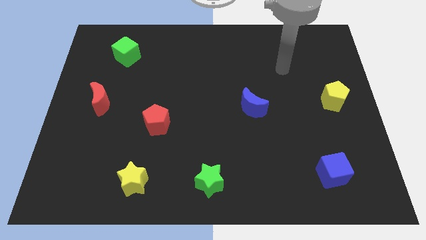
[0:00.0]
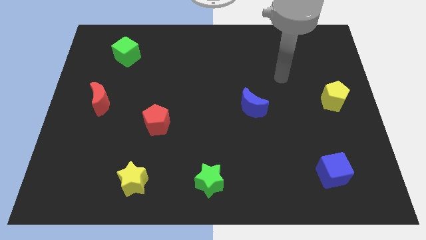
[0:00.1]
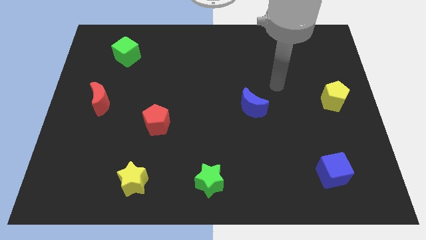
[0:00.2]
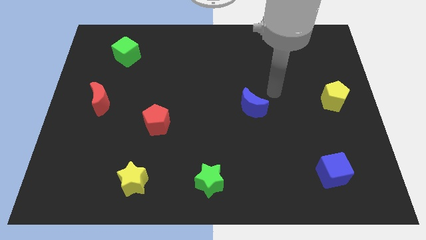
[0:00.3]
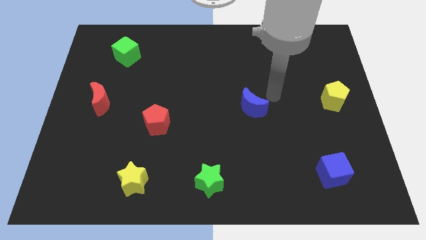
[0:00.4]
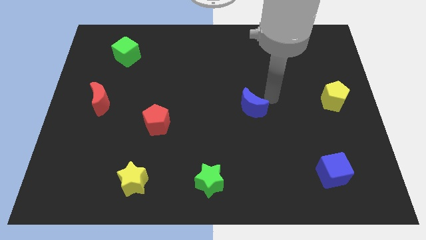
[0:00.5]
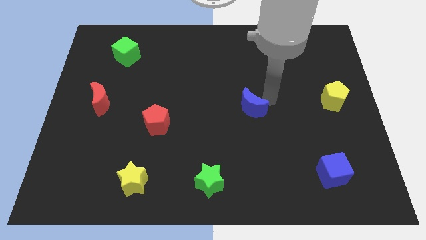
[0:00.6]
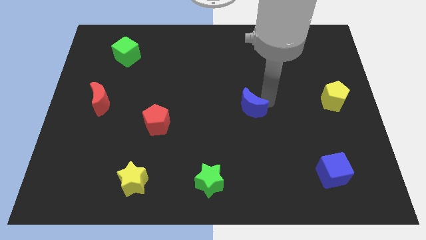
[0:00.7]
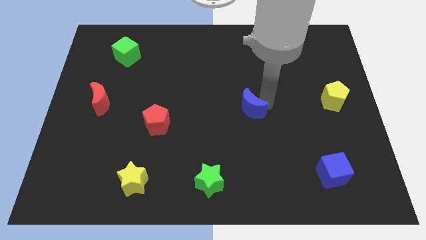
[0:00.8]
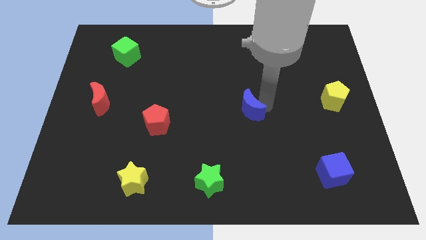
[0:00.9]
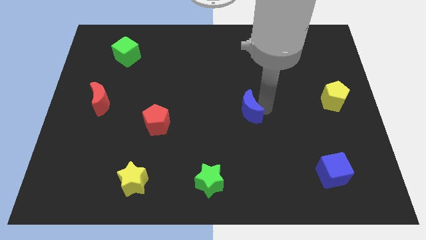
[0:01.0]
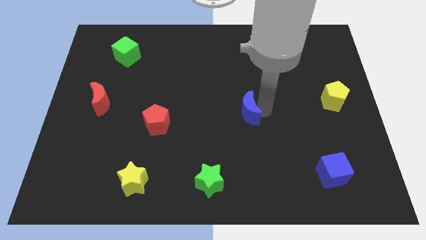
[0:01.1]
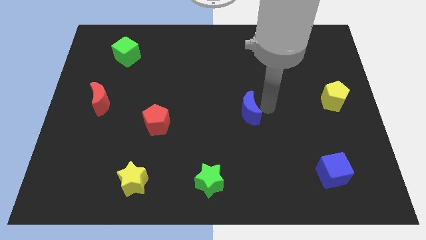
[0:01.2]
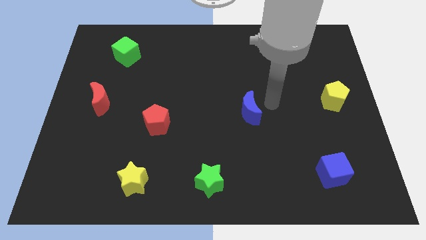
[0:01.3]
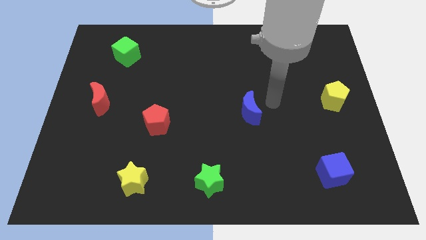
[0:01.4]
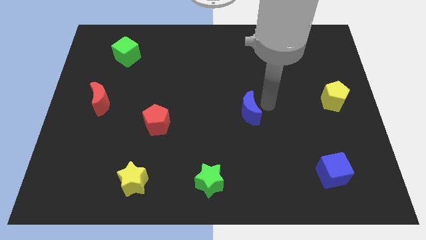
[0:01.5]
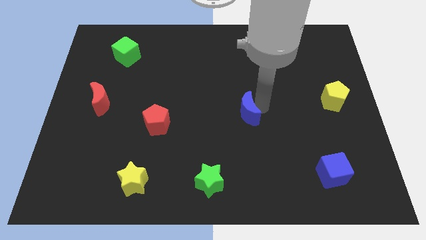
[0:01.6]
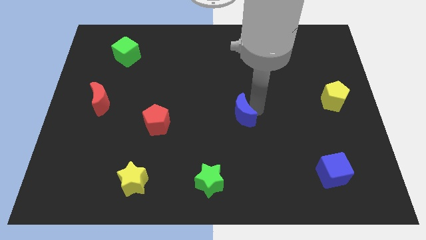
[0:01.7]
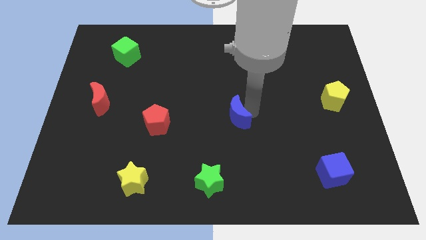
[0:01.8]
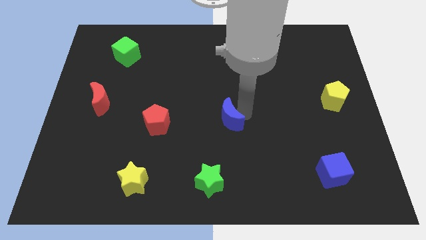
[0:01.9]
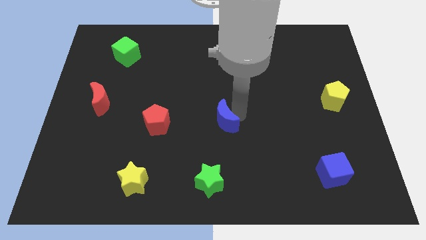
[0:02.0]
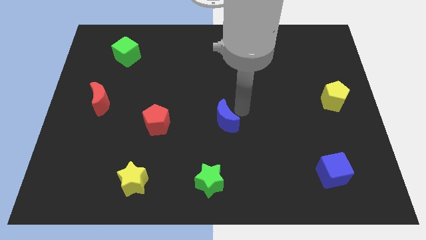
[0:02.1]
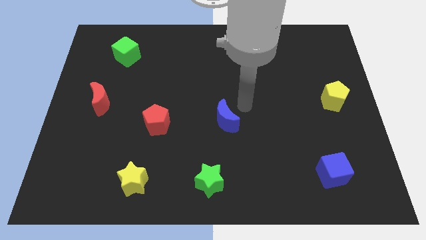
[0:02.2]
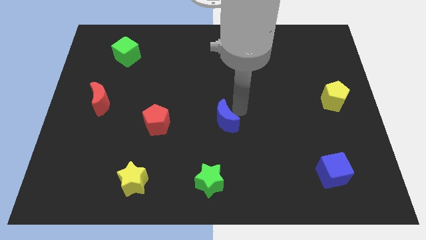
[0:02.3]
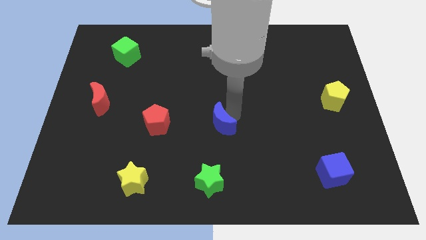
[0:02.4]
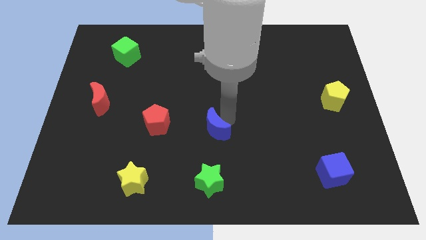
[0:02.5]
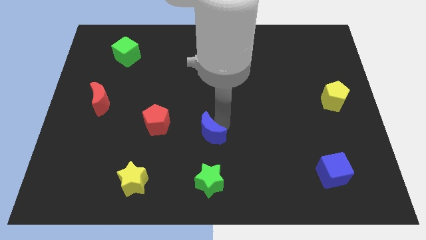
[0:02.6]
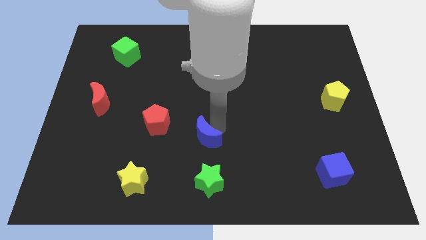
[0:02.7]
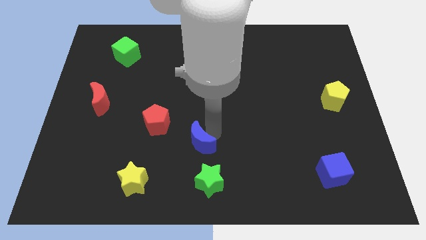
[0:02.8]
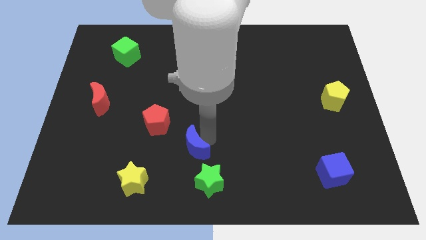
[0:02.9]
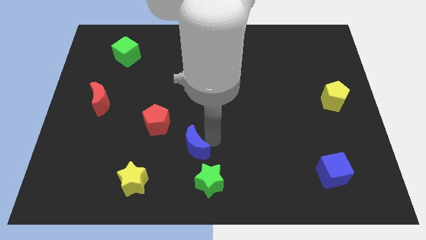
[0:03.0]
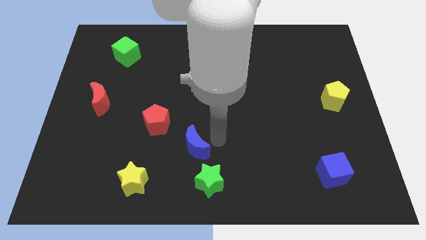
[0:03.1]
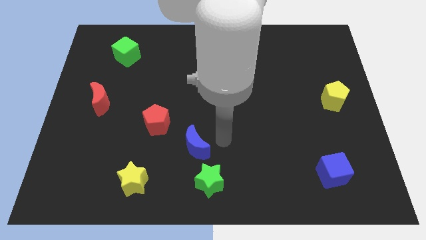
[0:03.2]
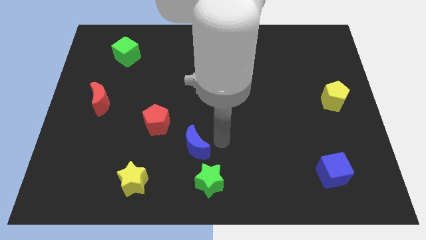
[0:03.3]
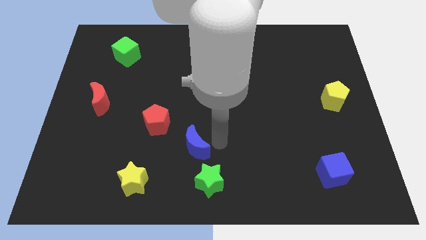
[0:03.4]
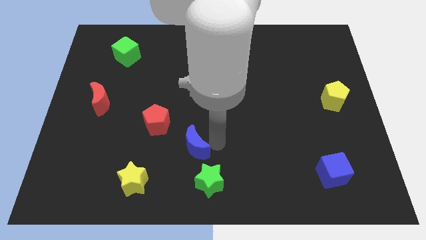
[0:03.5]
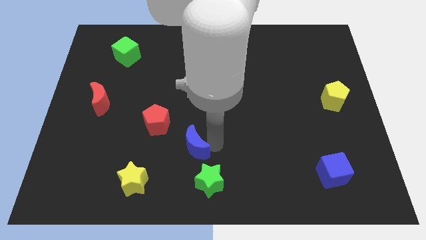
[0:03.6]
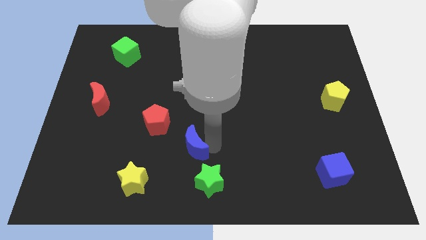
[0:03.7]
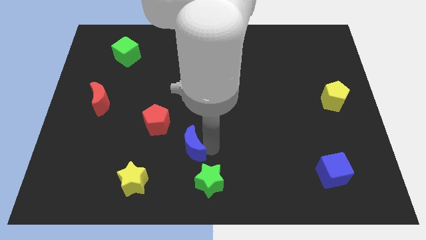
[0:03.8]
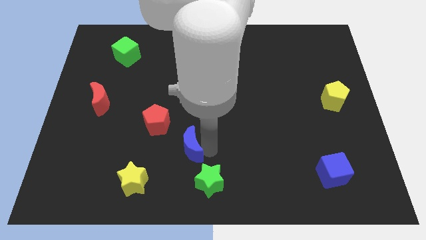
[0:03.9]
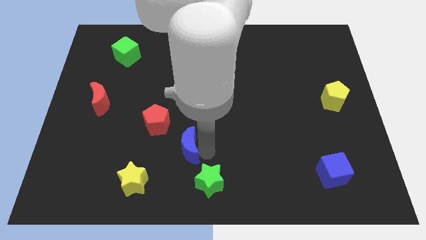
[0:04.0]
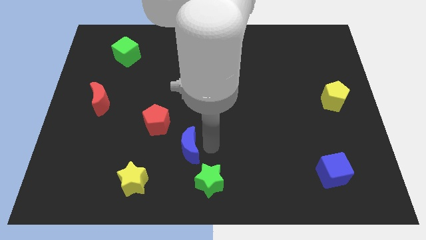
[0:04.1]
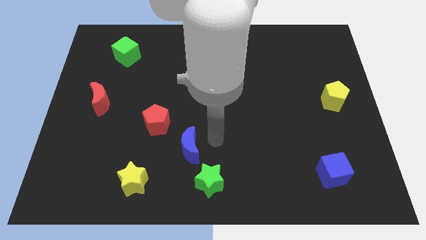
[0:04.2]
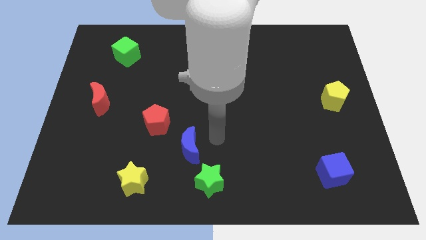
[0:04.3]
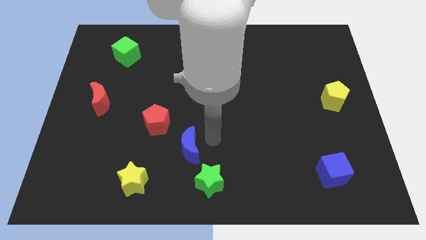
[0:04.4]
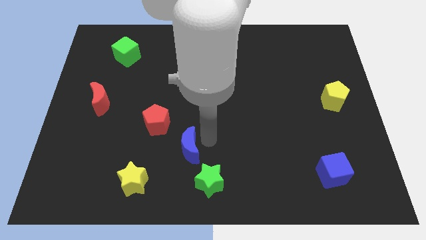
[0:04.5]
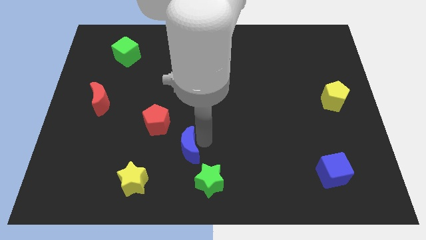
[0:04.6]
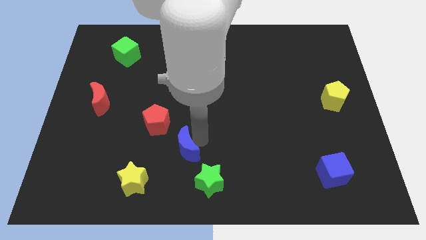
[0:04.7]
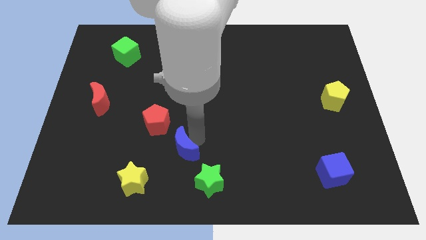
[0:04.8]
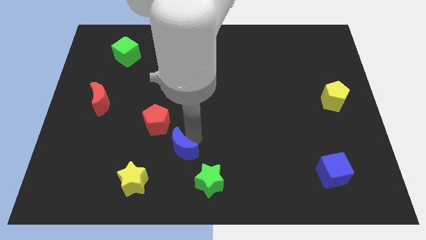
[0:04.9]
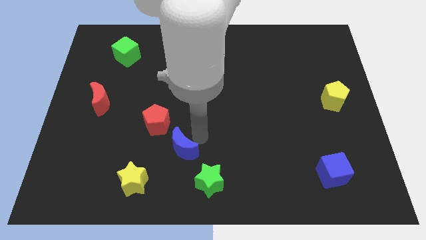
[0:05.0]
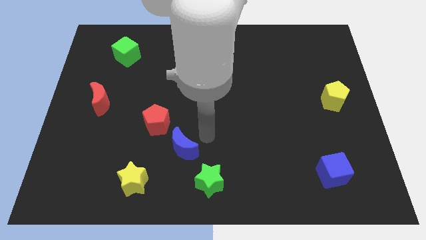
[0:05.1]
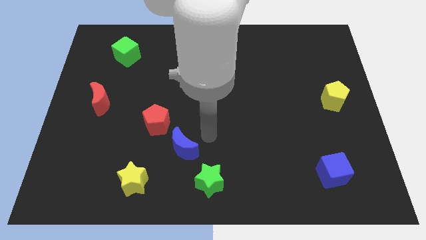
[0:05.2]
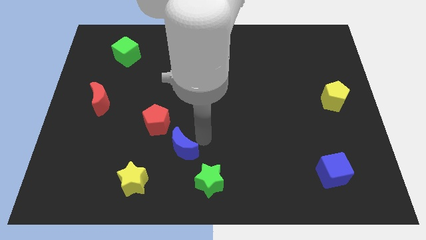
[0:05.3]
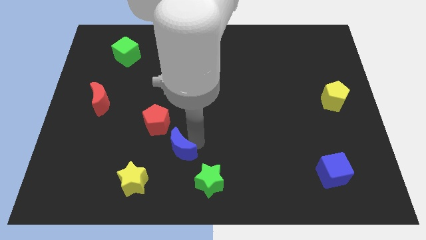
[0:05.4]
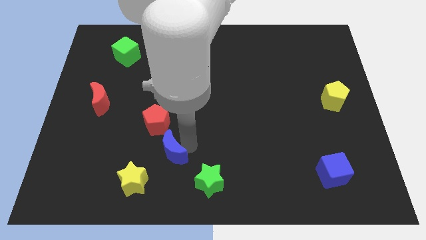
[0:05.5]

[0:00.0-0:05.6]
push the blue moon below the red pentagon

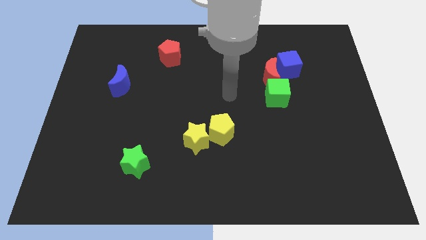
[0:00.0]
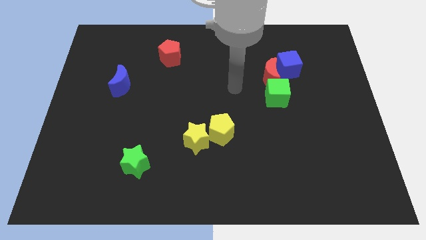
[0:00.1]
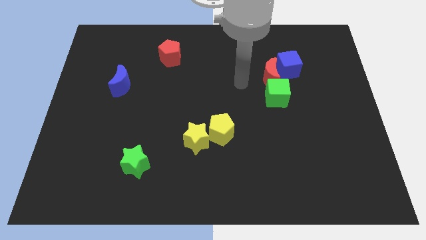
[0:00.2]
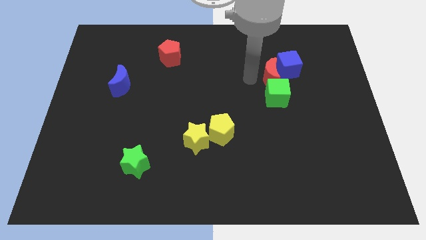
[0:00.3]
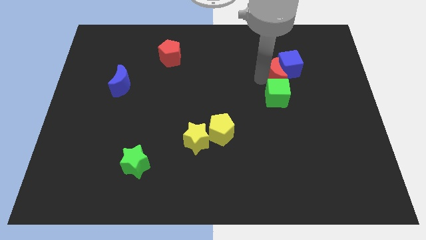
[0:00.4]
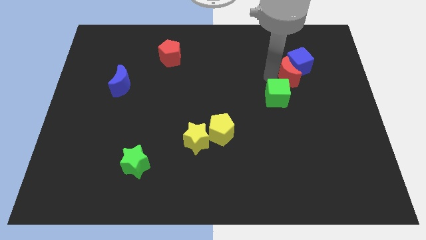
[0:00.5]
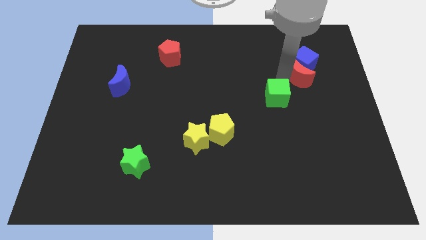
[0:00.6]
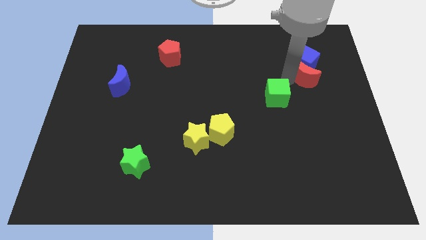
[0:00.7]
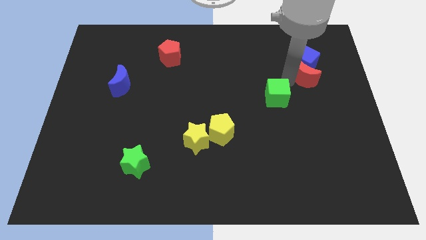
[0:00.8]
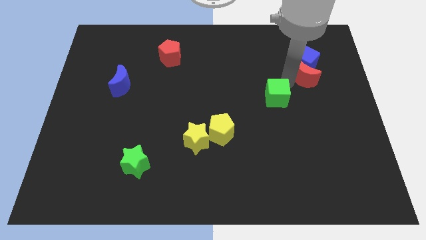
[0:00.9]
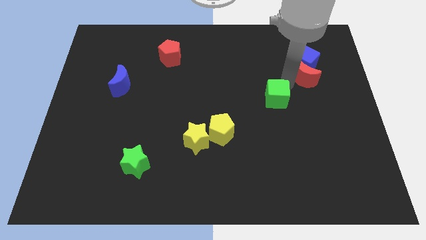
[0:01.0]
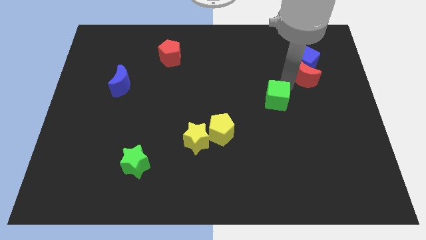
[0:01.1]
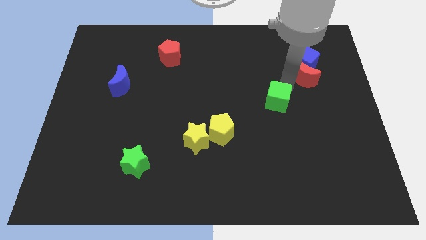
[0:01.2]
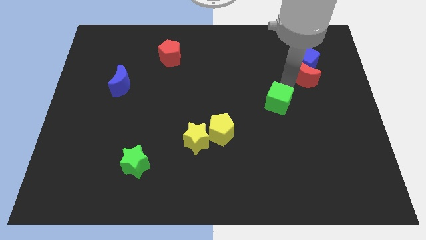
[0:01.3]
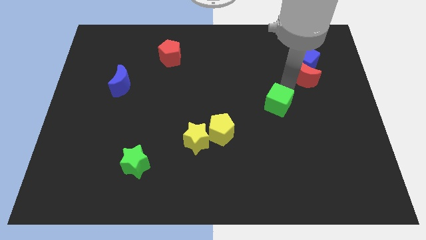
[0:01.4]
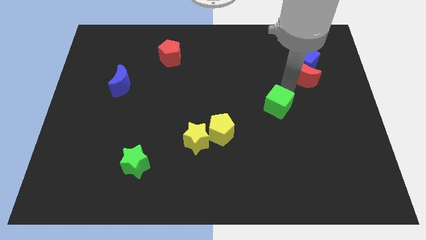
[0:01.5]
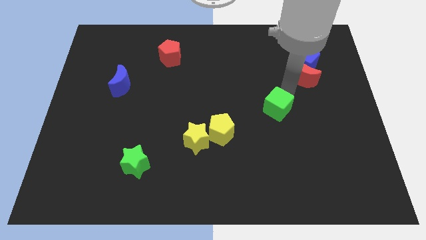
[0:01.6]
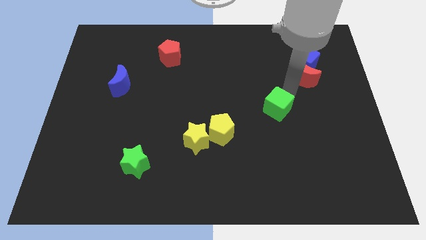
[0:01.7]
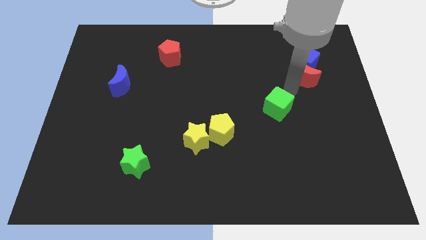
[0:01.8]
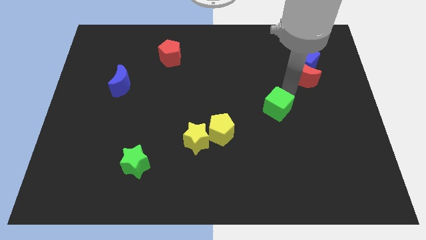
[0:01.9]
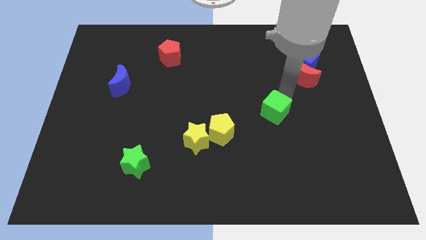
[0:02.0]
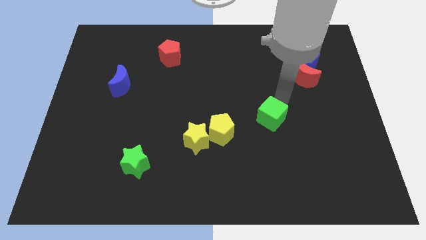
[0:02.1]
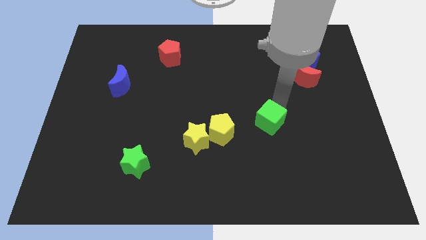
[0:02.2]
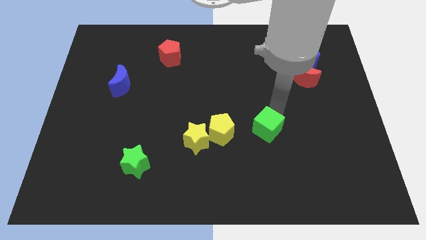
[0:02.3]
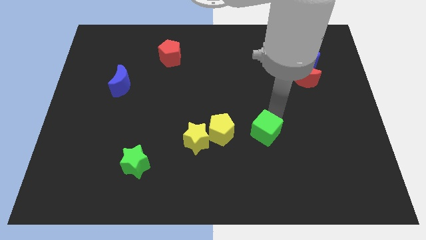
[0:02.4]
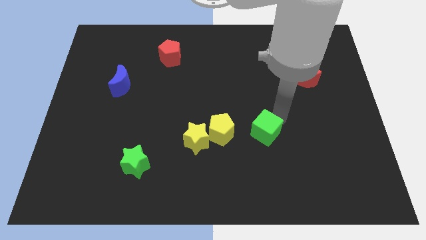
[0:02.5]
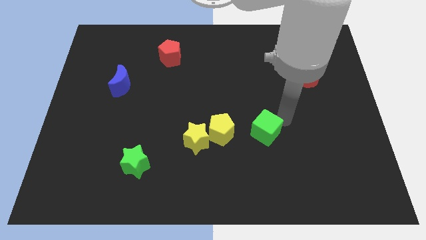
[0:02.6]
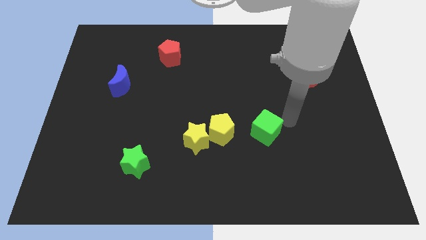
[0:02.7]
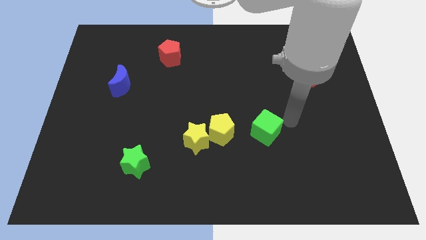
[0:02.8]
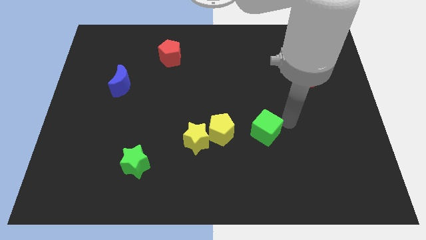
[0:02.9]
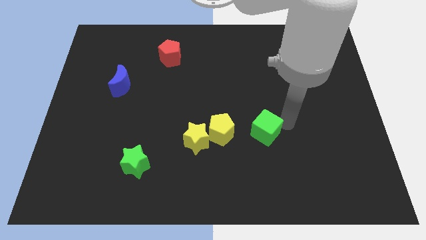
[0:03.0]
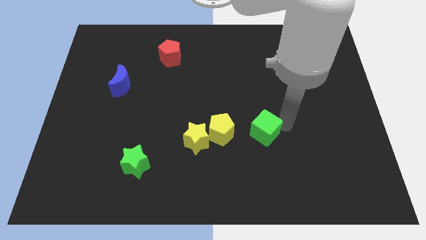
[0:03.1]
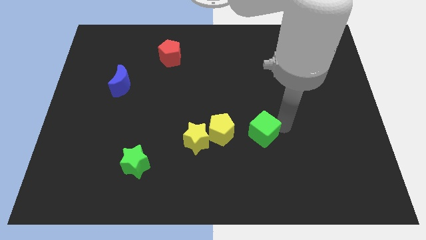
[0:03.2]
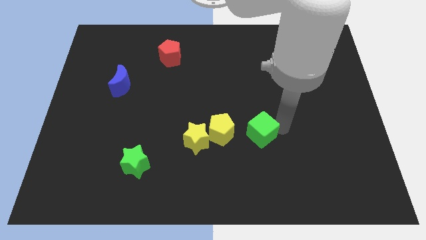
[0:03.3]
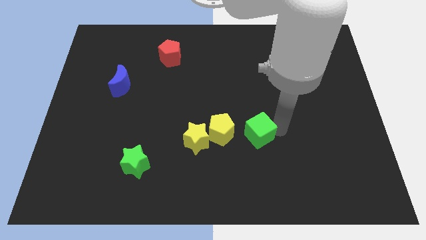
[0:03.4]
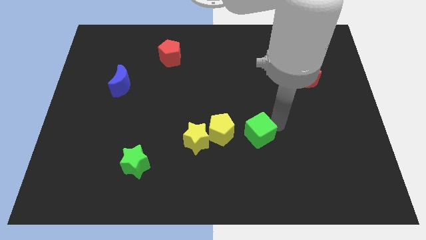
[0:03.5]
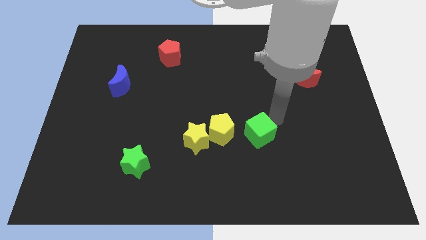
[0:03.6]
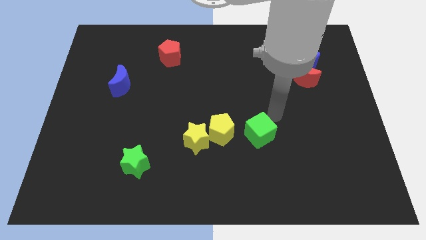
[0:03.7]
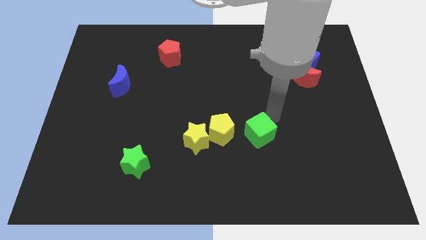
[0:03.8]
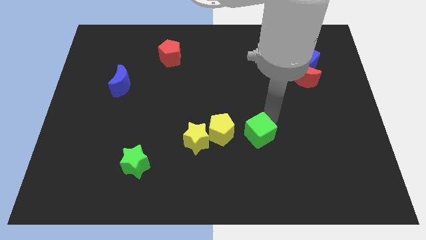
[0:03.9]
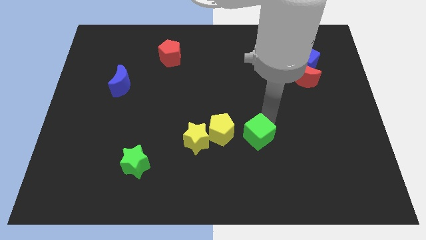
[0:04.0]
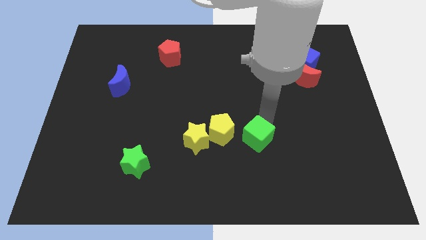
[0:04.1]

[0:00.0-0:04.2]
move the green cube to the bottom right side of the yellow pentagon
